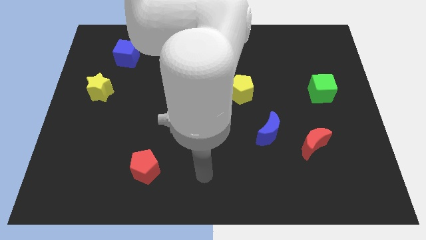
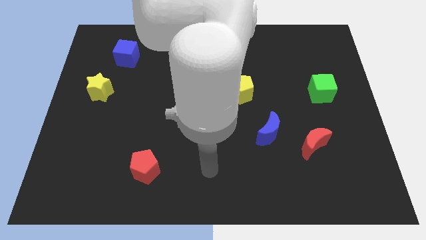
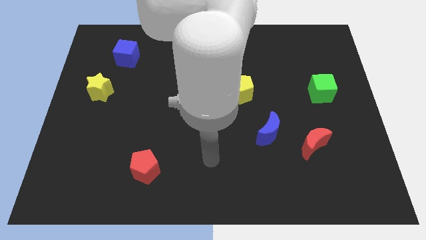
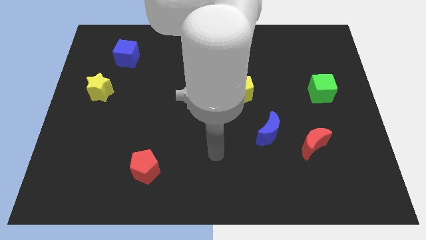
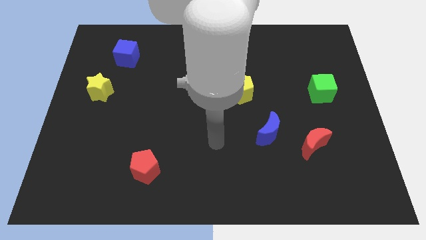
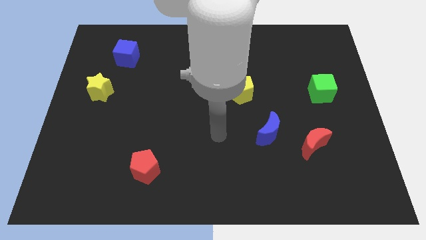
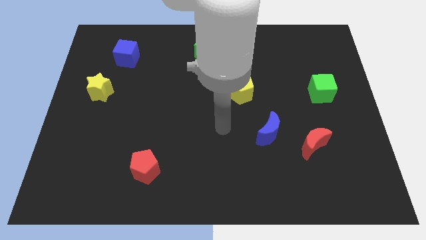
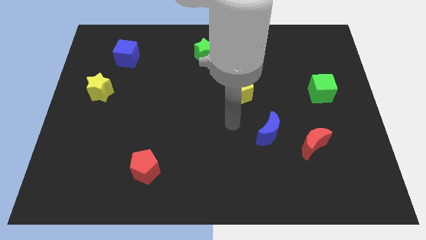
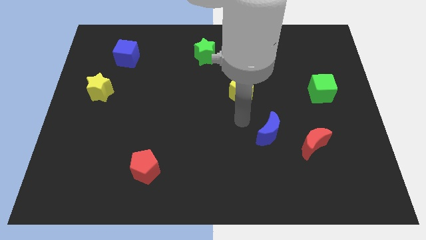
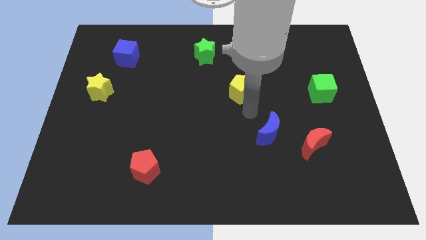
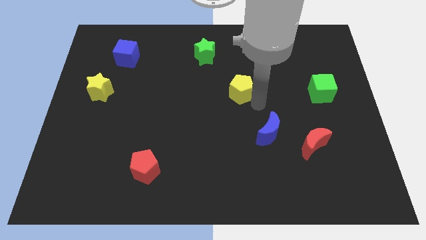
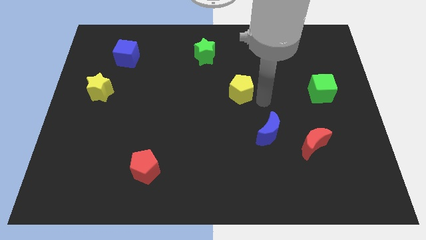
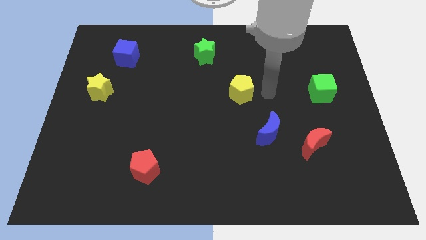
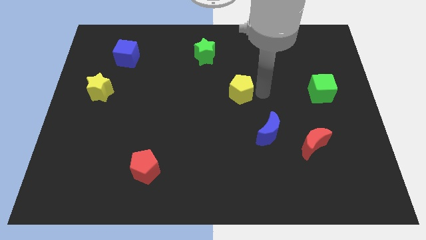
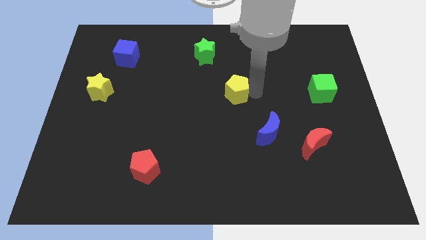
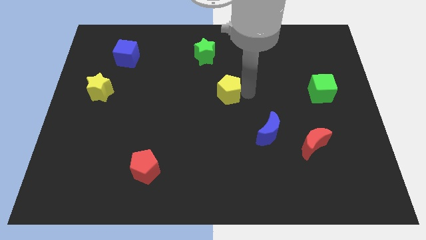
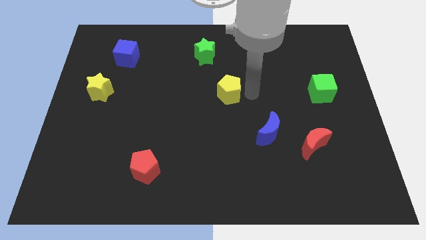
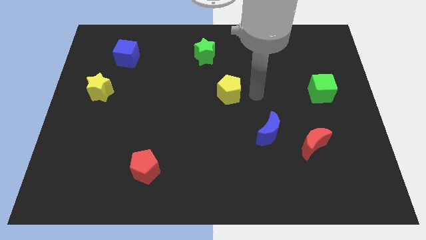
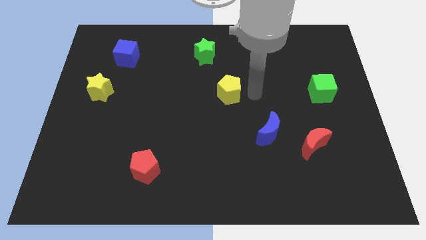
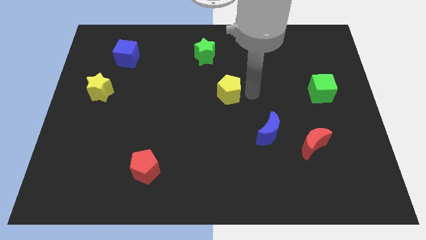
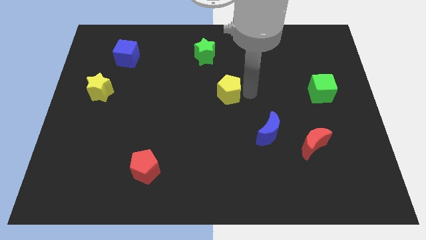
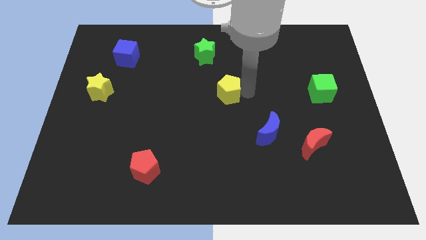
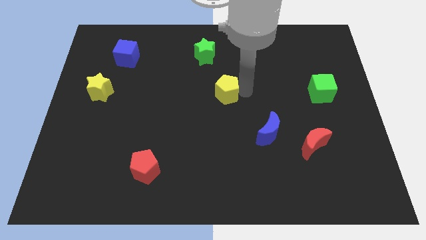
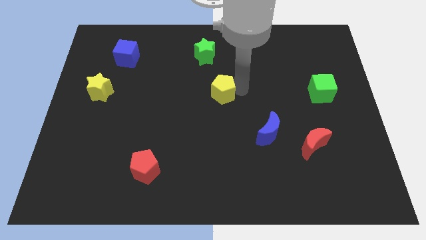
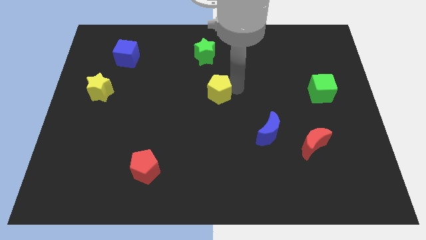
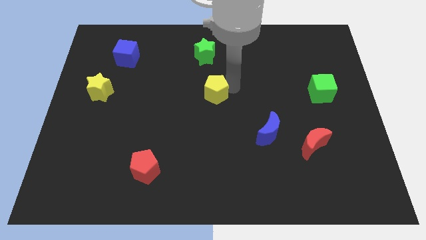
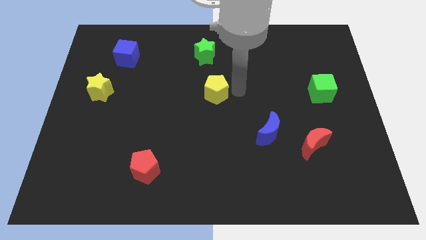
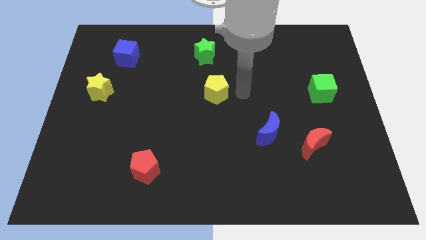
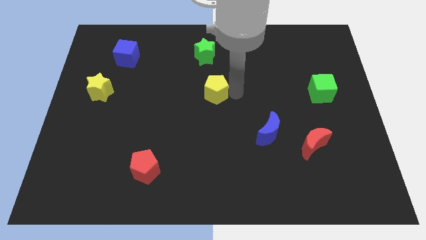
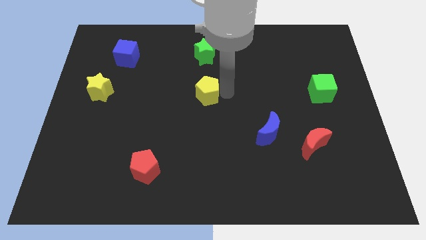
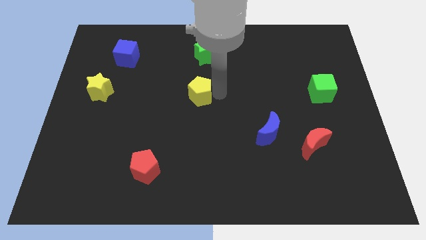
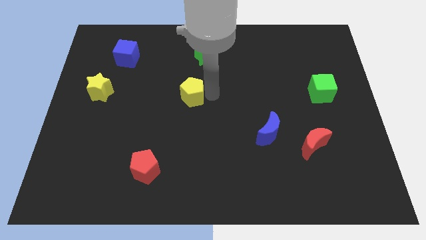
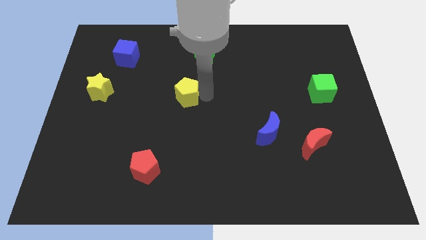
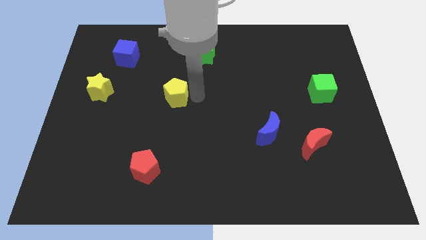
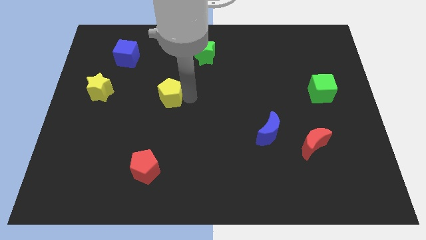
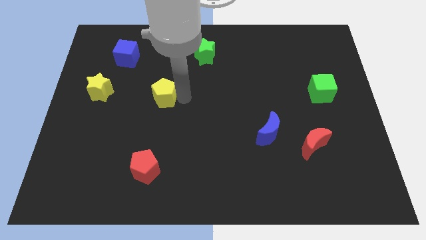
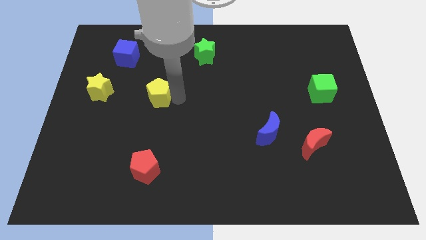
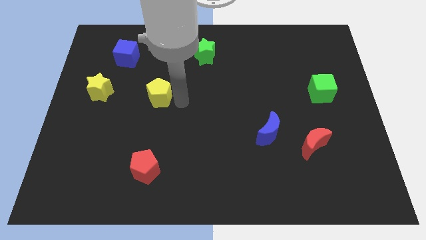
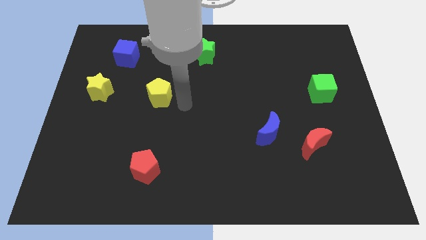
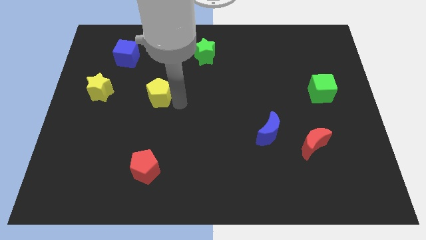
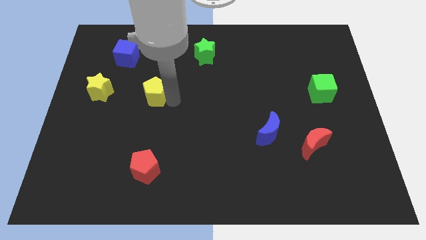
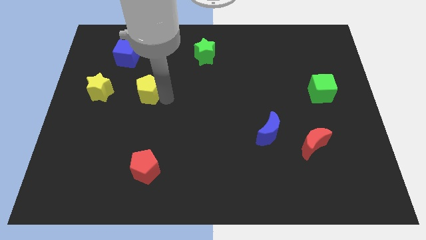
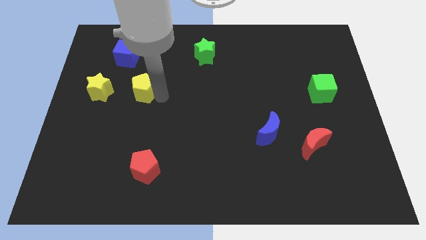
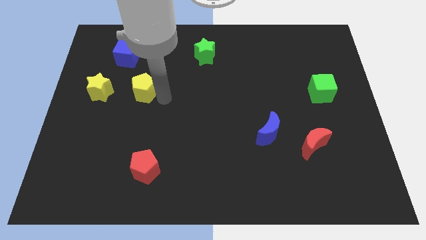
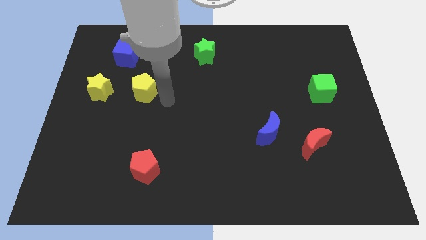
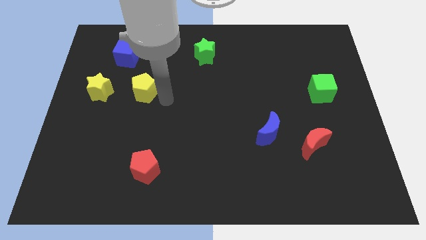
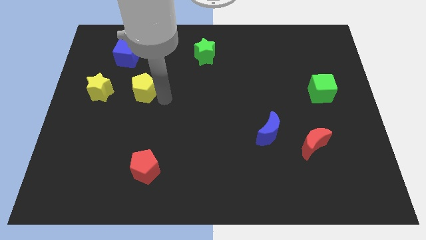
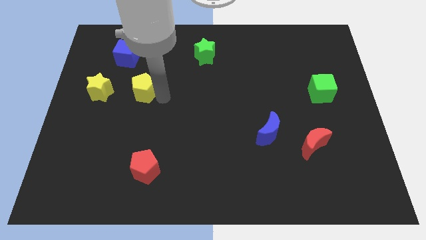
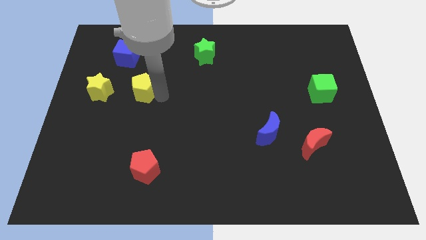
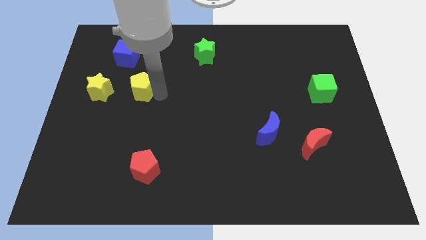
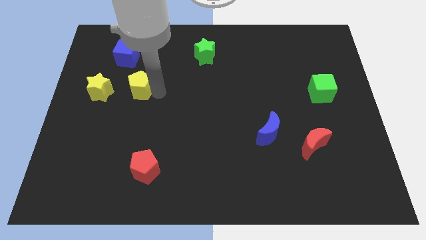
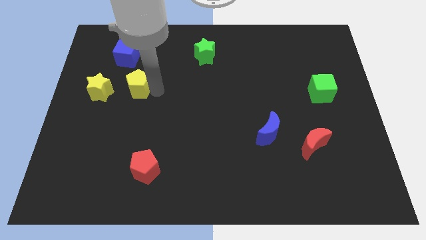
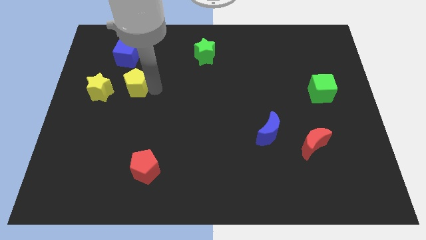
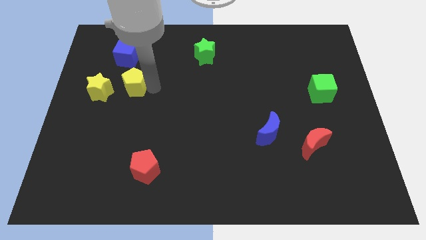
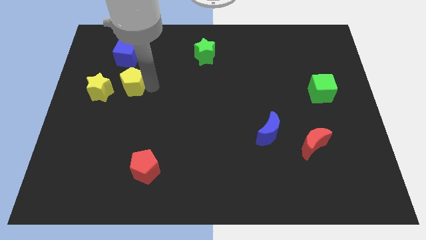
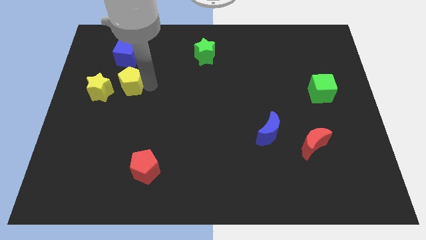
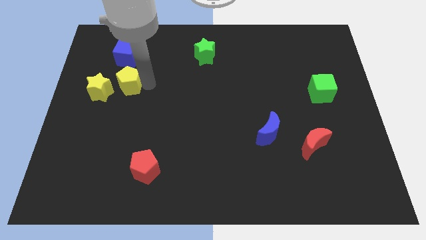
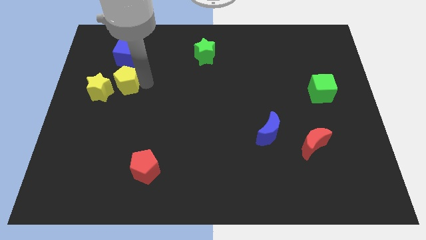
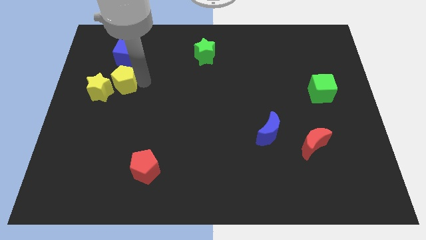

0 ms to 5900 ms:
move the yellow pentagon towards the yellow star
